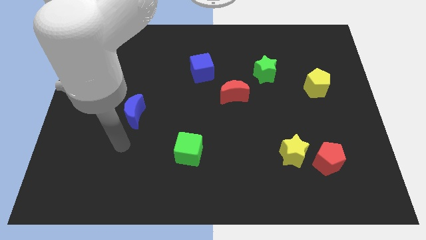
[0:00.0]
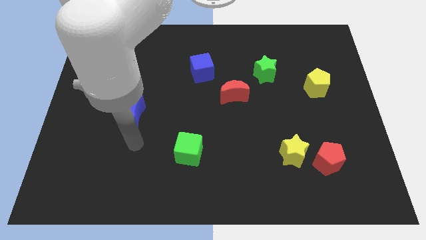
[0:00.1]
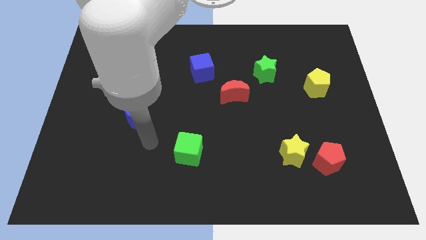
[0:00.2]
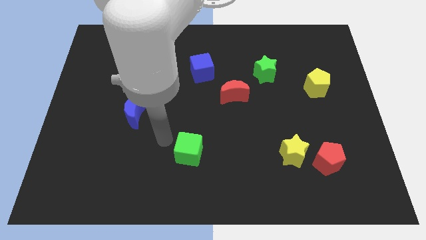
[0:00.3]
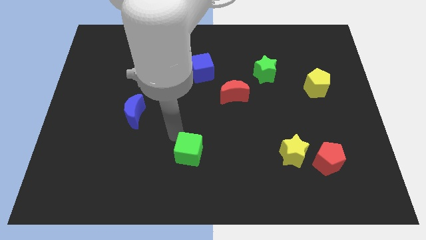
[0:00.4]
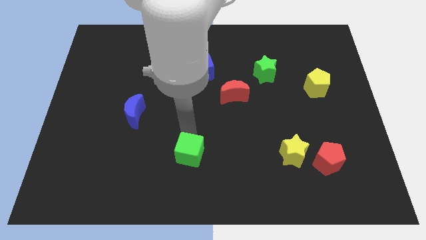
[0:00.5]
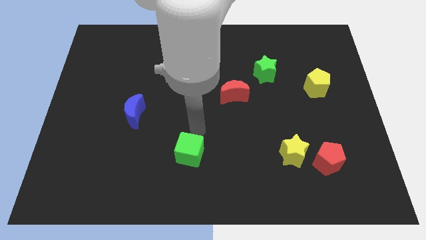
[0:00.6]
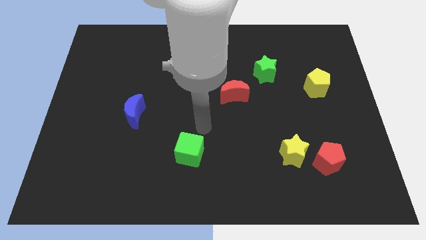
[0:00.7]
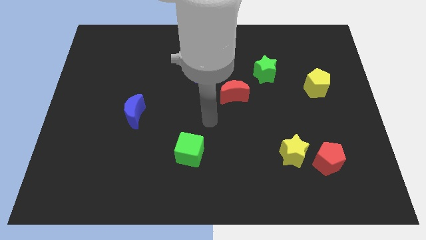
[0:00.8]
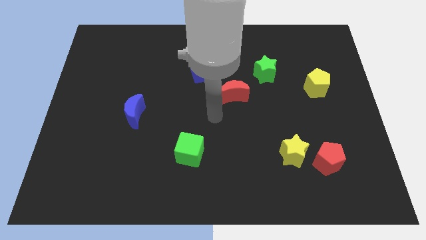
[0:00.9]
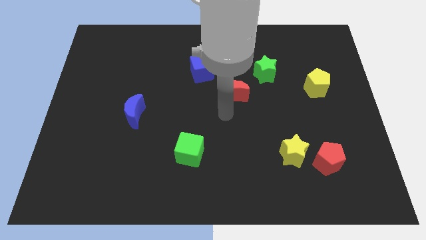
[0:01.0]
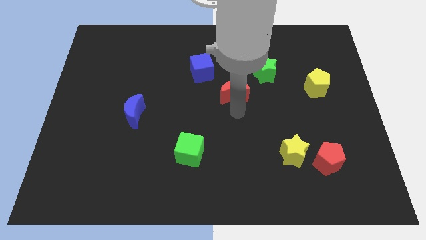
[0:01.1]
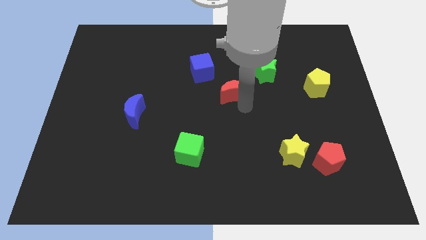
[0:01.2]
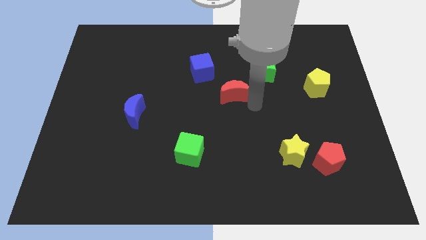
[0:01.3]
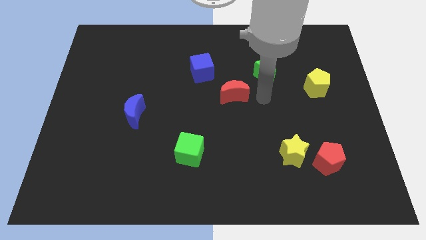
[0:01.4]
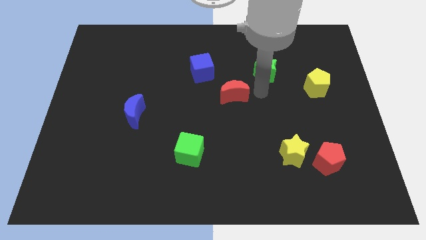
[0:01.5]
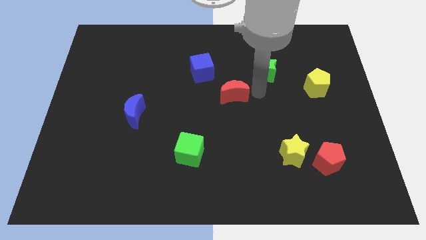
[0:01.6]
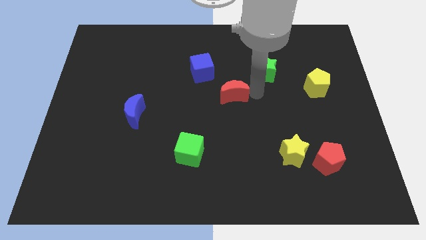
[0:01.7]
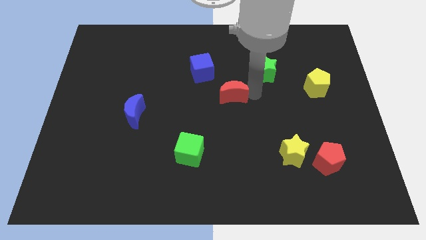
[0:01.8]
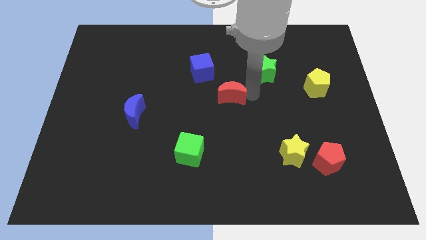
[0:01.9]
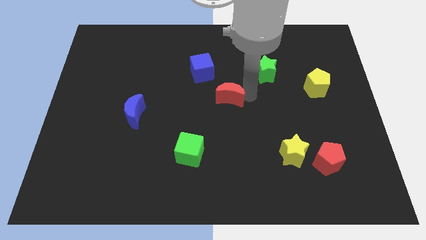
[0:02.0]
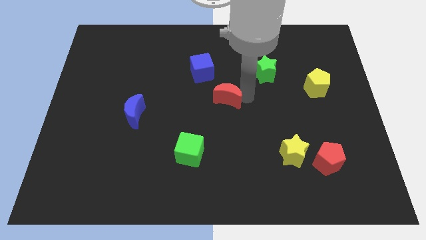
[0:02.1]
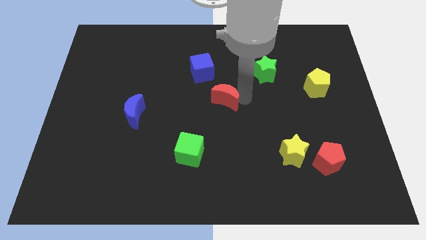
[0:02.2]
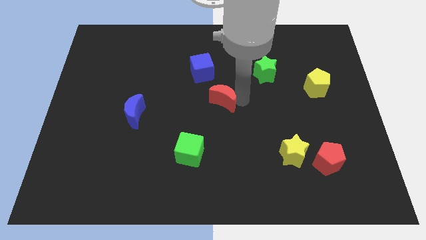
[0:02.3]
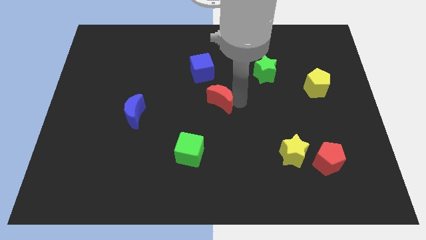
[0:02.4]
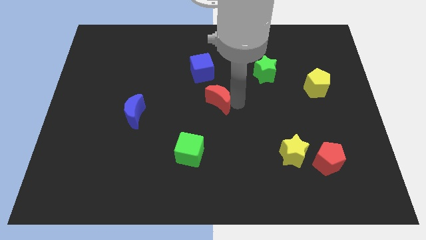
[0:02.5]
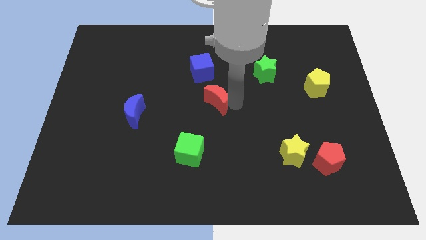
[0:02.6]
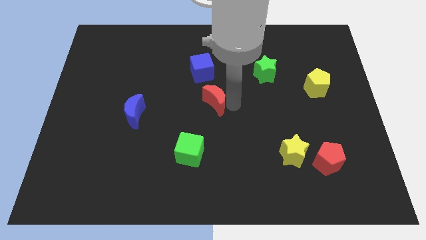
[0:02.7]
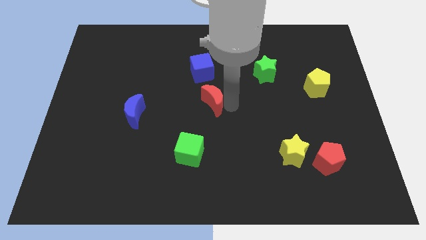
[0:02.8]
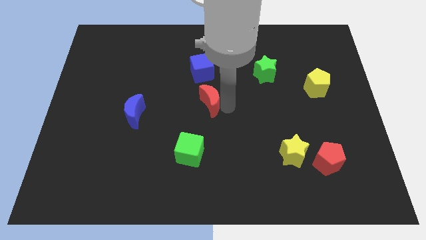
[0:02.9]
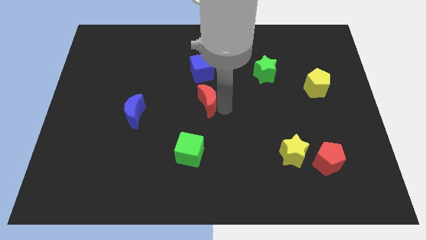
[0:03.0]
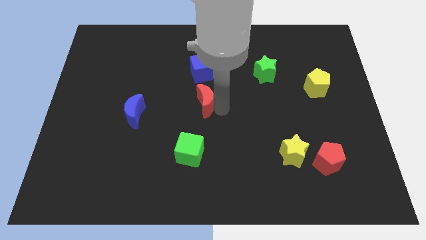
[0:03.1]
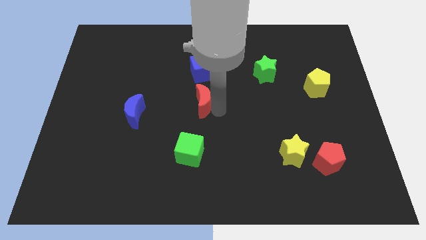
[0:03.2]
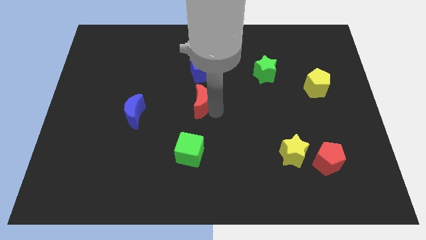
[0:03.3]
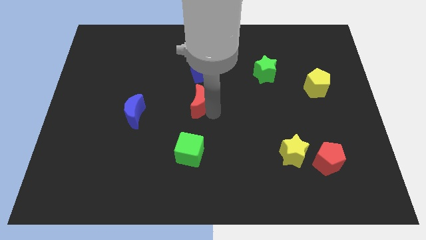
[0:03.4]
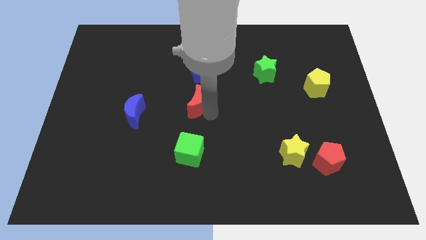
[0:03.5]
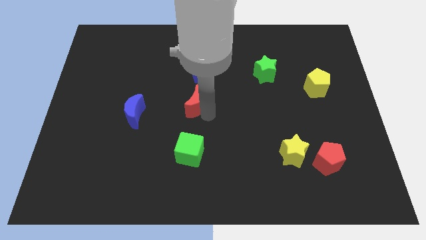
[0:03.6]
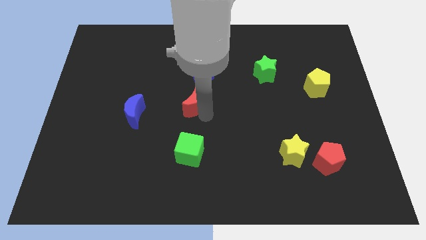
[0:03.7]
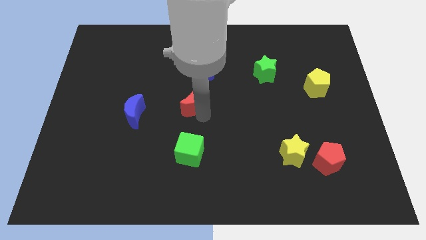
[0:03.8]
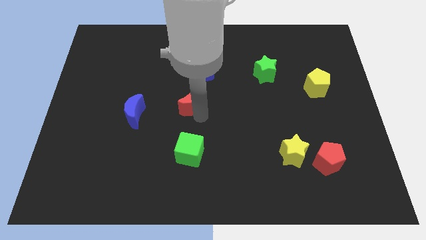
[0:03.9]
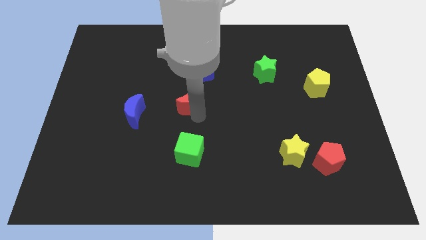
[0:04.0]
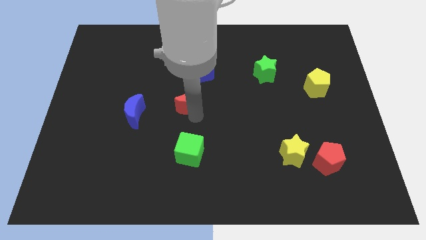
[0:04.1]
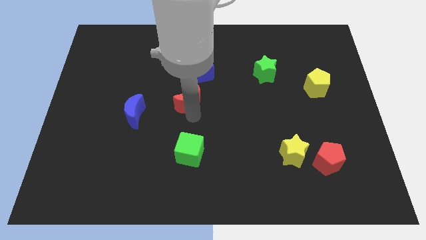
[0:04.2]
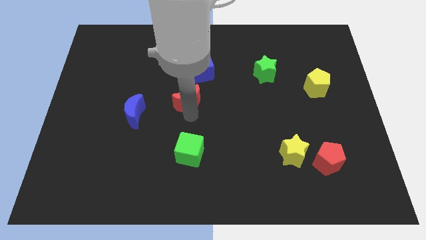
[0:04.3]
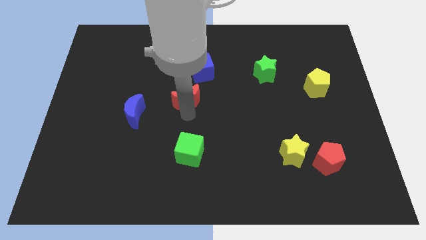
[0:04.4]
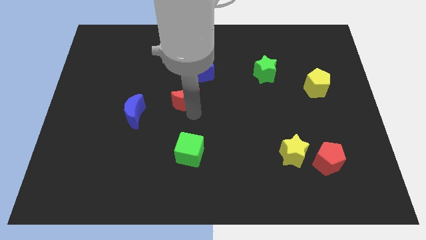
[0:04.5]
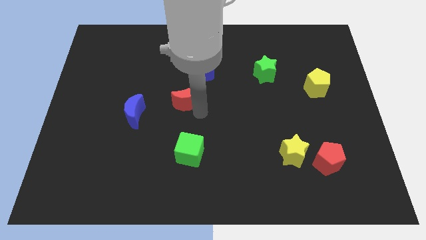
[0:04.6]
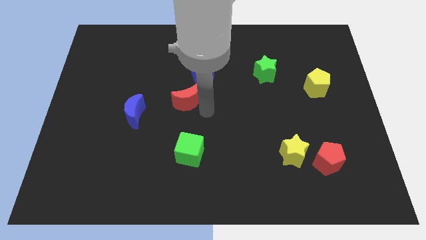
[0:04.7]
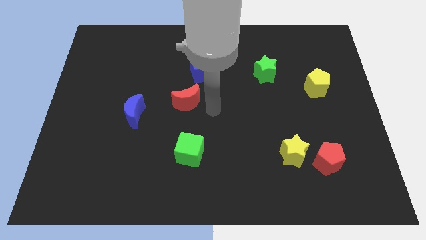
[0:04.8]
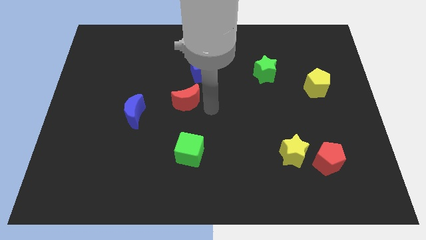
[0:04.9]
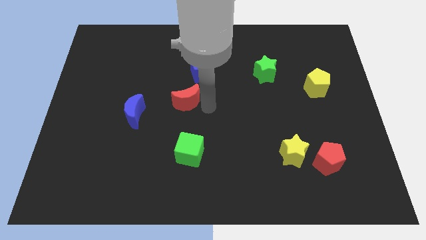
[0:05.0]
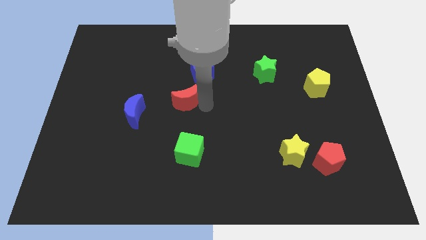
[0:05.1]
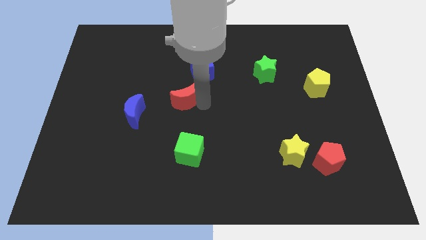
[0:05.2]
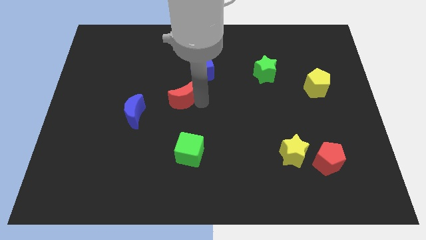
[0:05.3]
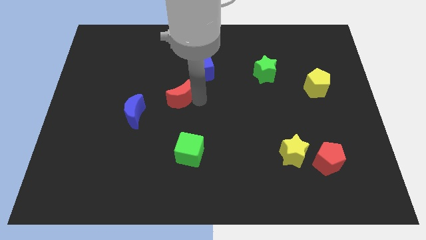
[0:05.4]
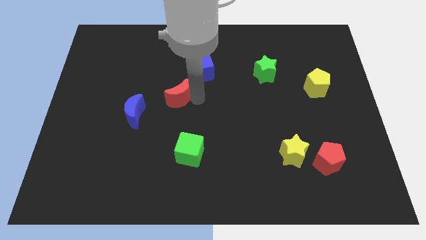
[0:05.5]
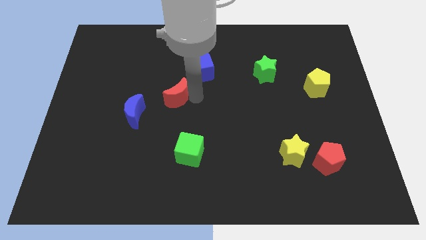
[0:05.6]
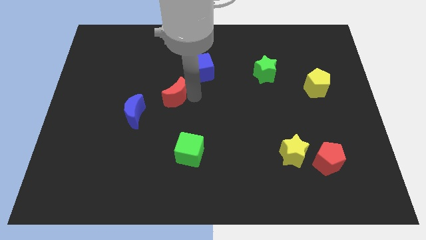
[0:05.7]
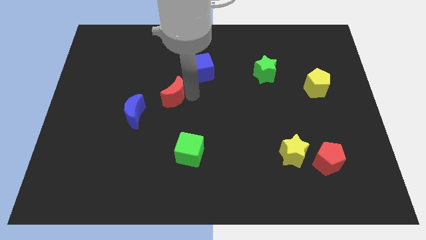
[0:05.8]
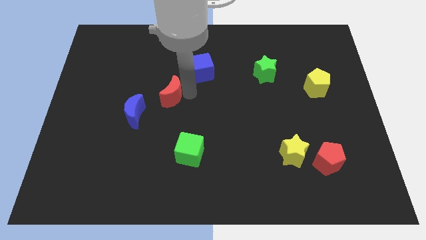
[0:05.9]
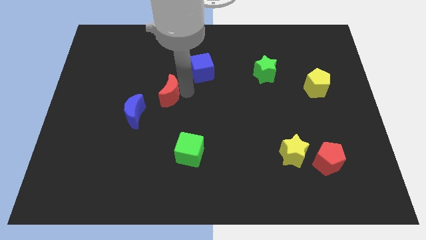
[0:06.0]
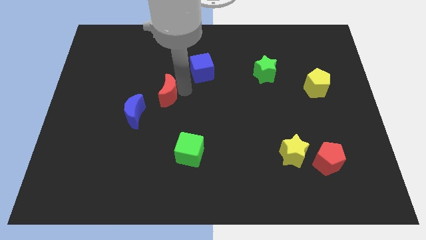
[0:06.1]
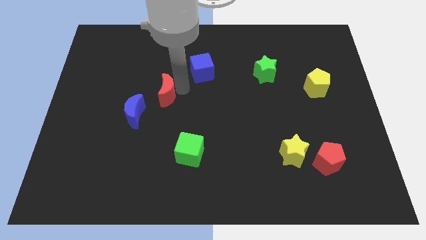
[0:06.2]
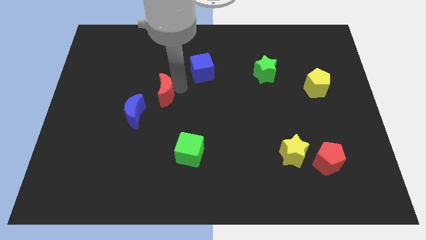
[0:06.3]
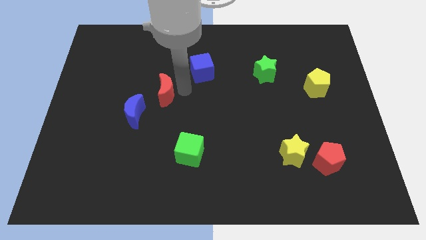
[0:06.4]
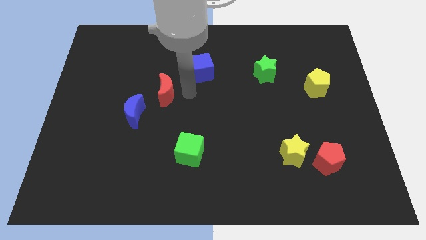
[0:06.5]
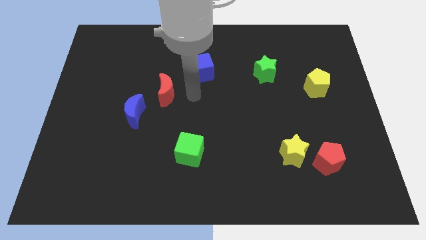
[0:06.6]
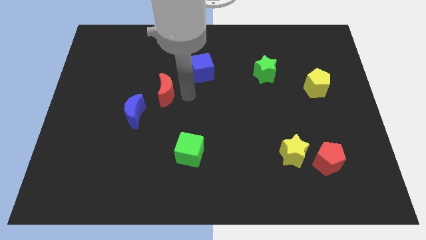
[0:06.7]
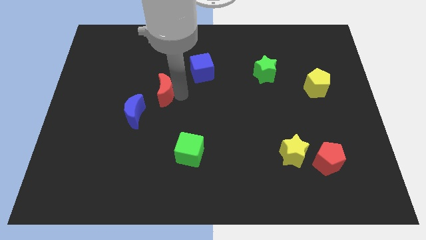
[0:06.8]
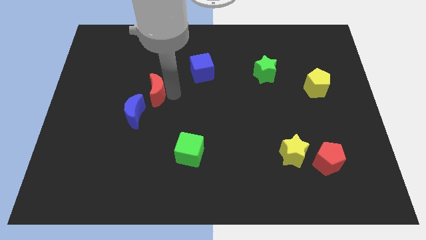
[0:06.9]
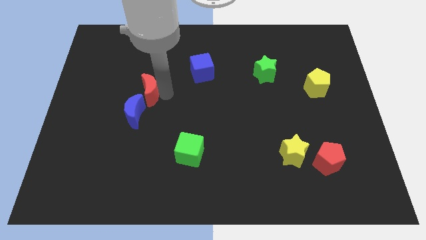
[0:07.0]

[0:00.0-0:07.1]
move the red moon to the left

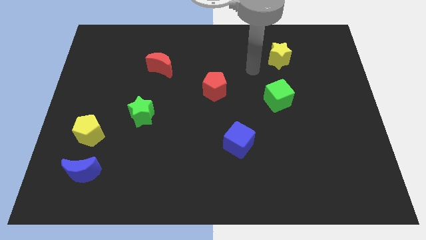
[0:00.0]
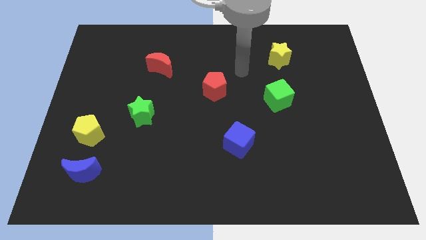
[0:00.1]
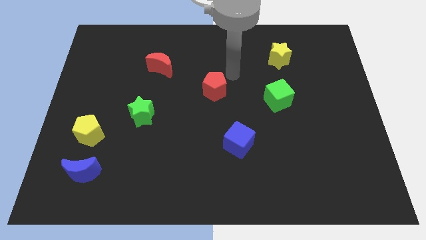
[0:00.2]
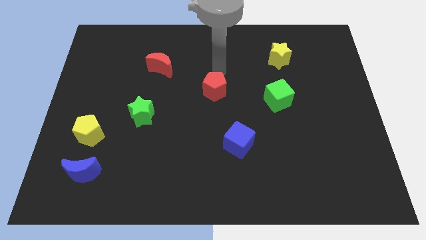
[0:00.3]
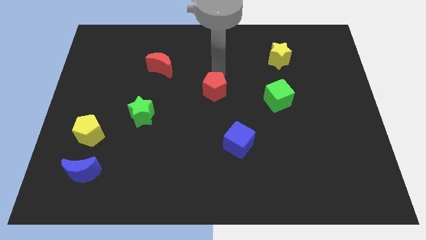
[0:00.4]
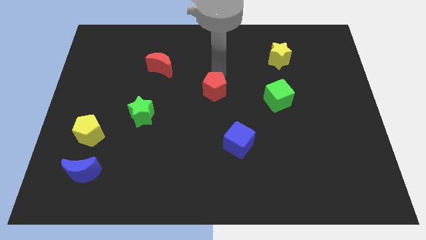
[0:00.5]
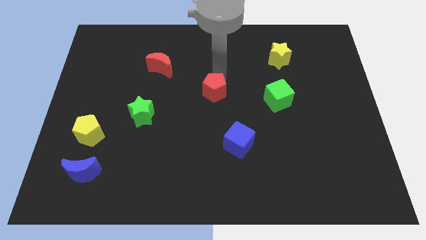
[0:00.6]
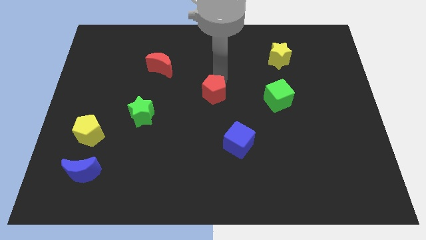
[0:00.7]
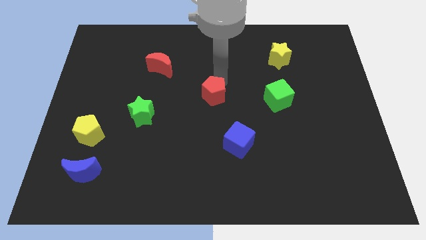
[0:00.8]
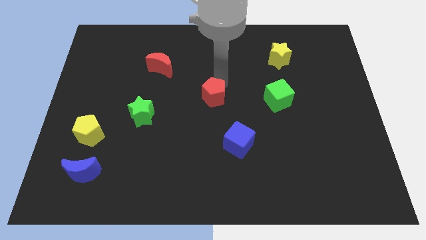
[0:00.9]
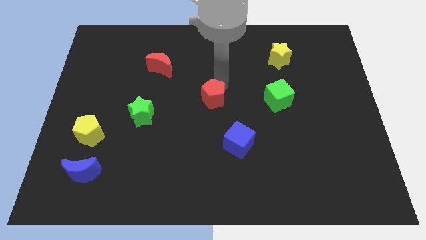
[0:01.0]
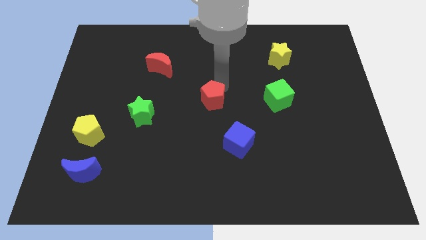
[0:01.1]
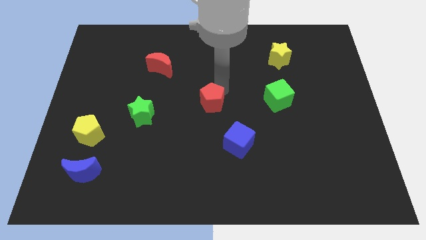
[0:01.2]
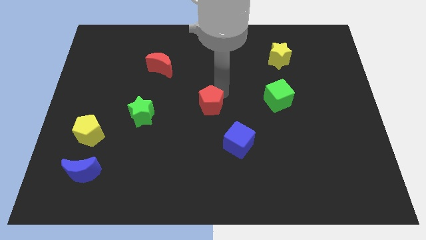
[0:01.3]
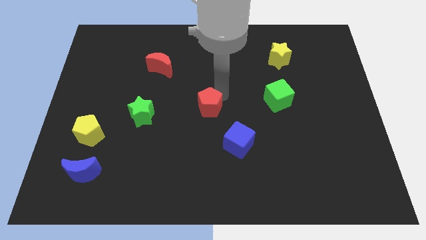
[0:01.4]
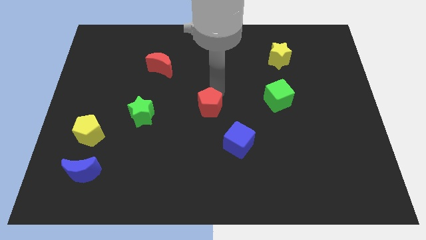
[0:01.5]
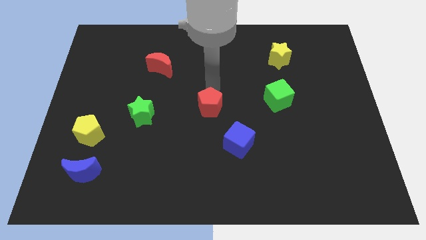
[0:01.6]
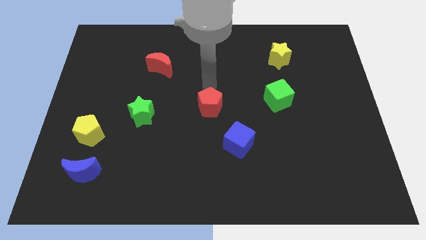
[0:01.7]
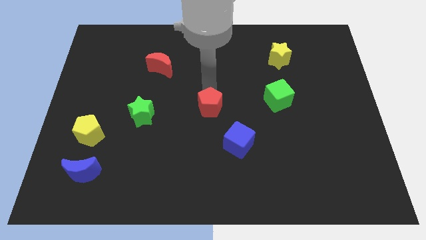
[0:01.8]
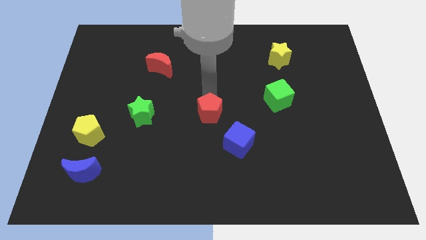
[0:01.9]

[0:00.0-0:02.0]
push the red pentagon downwards a little bit
